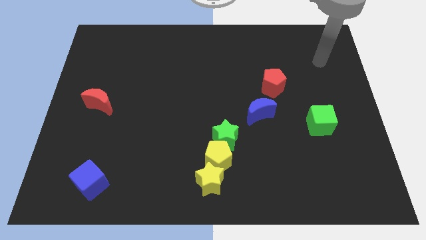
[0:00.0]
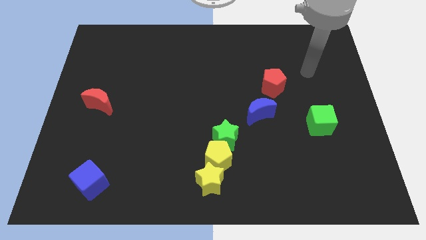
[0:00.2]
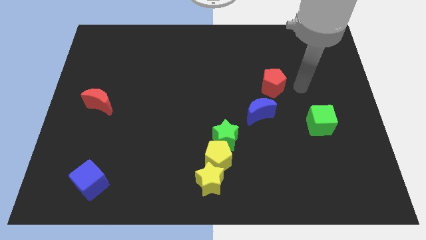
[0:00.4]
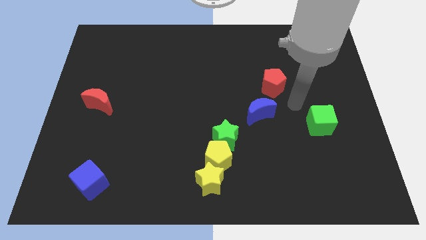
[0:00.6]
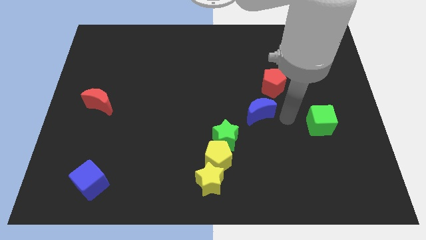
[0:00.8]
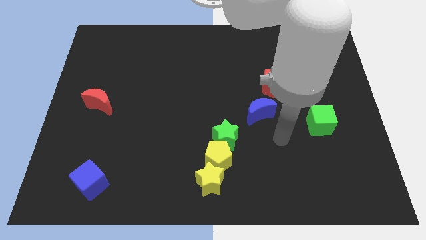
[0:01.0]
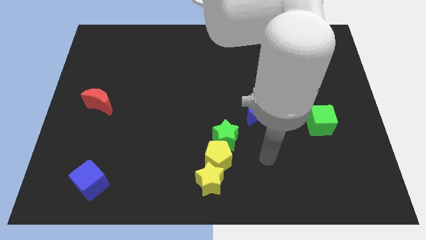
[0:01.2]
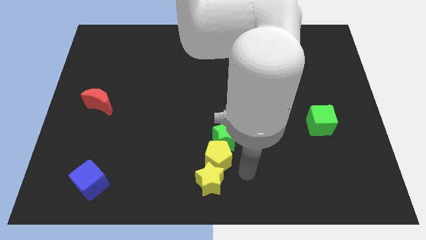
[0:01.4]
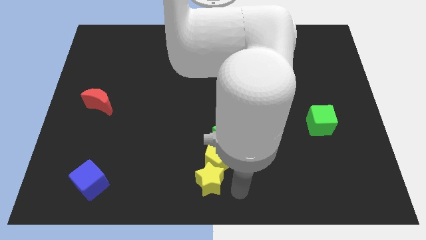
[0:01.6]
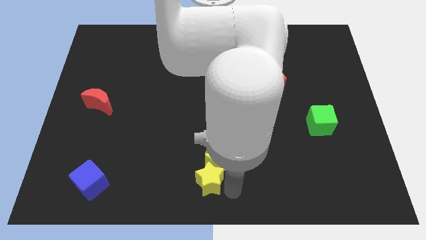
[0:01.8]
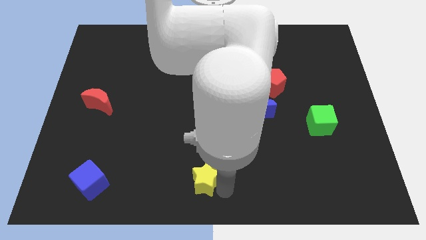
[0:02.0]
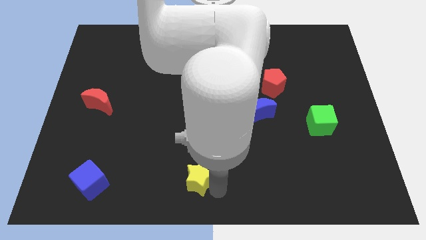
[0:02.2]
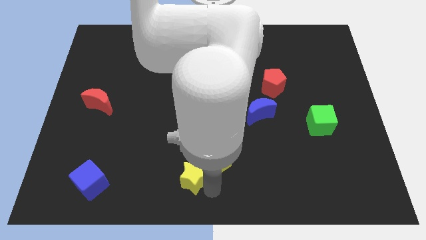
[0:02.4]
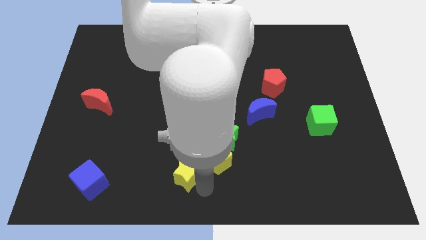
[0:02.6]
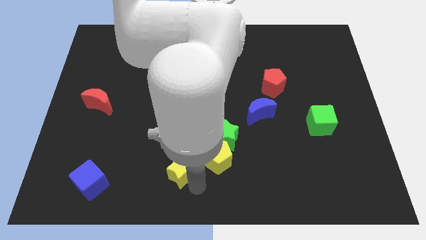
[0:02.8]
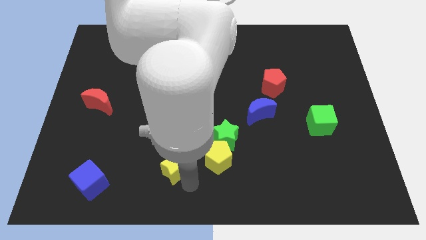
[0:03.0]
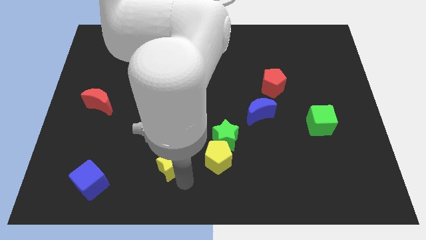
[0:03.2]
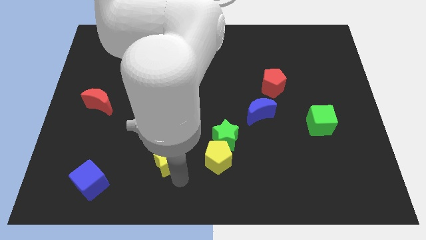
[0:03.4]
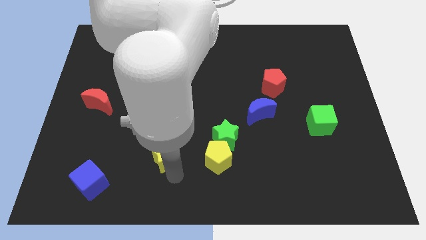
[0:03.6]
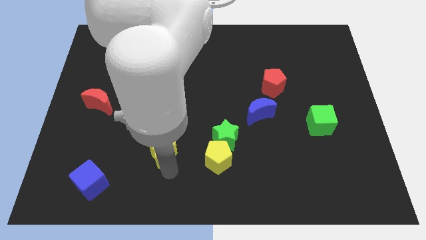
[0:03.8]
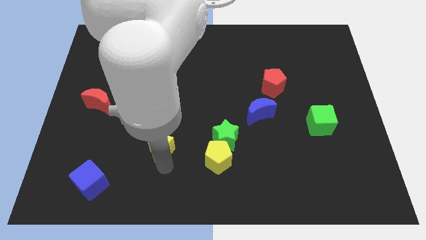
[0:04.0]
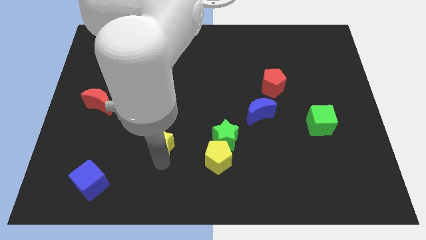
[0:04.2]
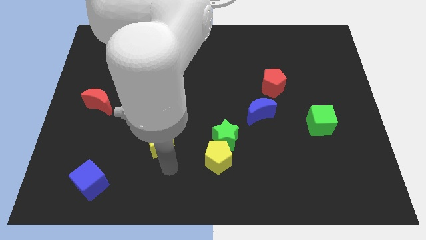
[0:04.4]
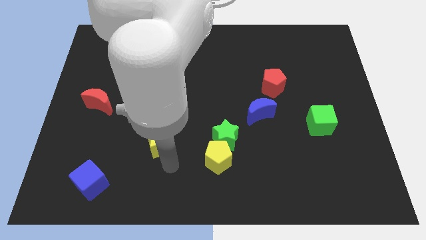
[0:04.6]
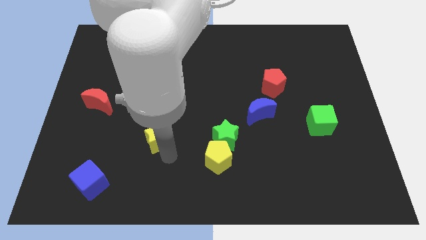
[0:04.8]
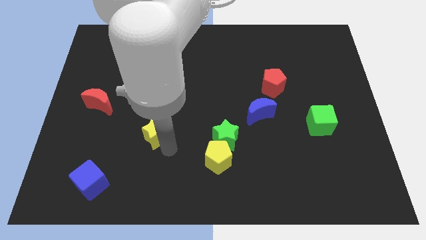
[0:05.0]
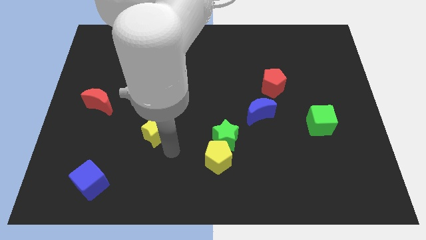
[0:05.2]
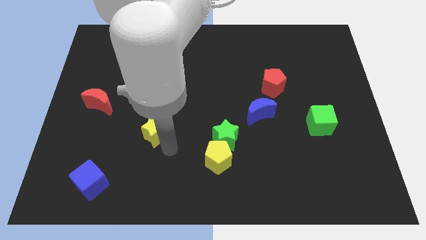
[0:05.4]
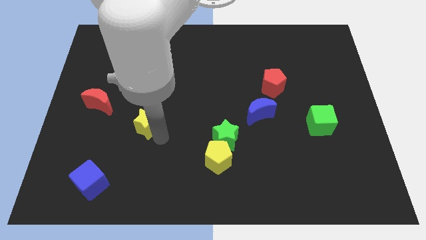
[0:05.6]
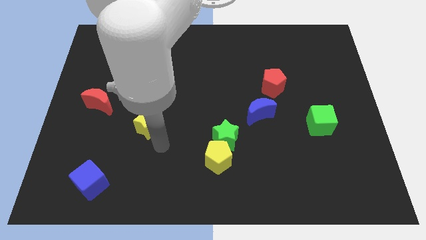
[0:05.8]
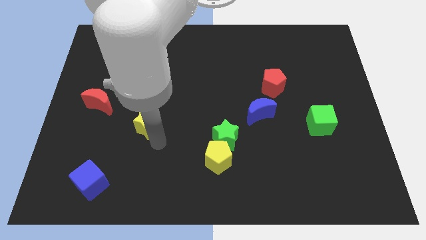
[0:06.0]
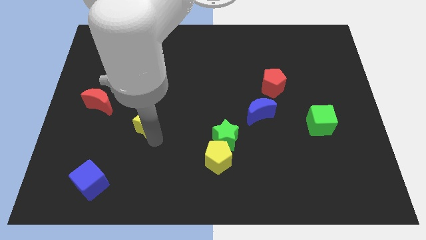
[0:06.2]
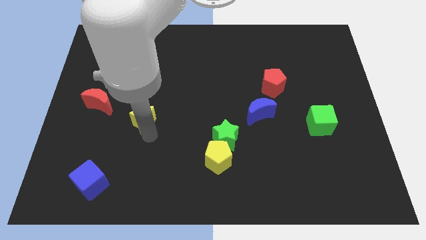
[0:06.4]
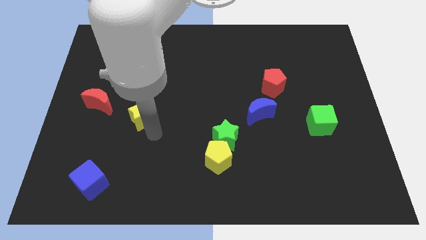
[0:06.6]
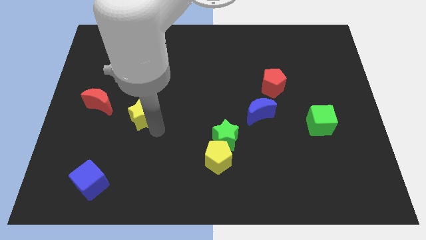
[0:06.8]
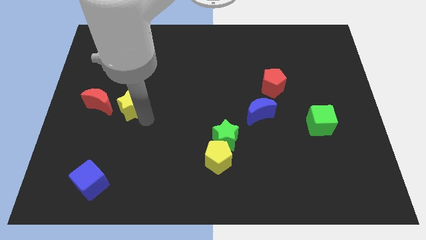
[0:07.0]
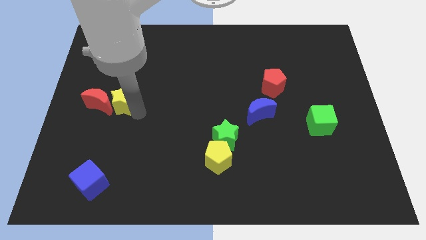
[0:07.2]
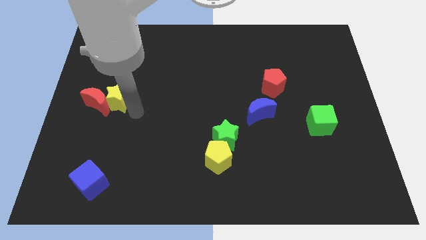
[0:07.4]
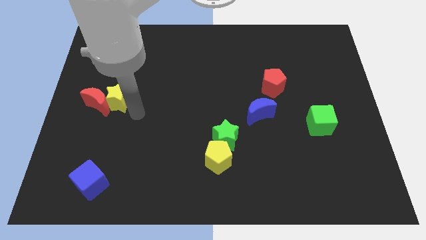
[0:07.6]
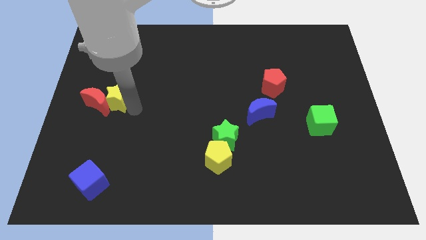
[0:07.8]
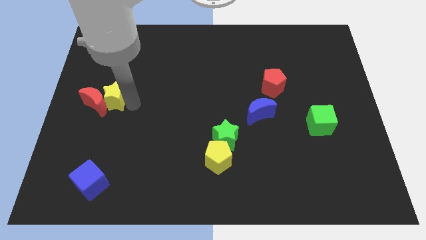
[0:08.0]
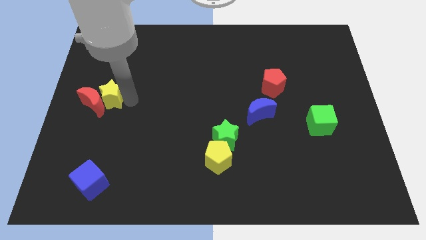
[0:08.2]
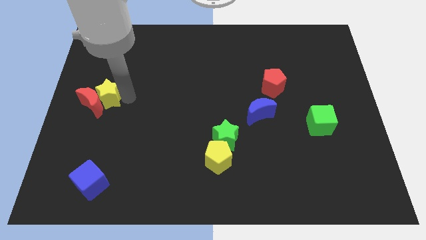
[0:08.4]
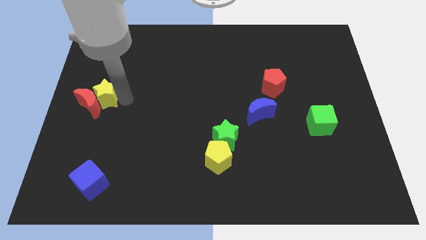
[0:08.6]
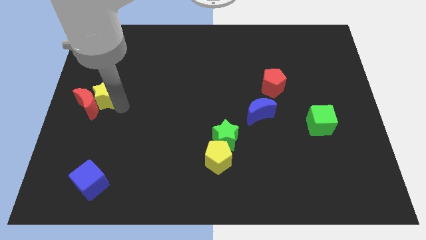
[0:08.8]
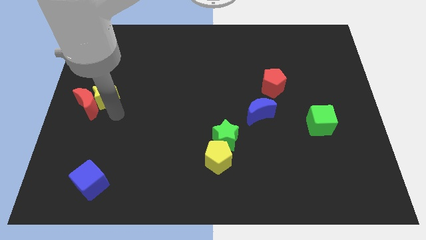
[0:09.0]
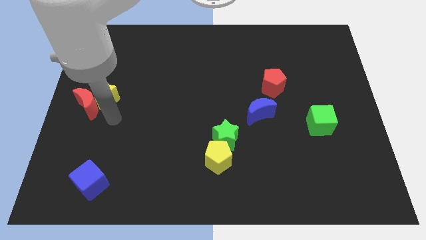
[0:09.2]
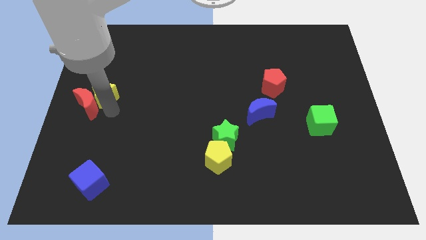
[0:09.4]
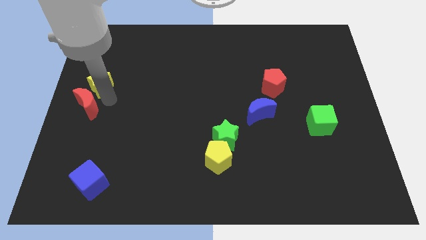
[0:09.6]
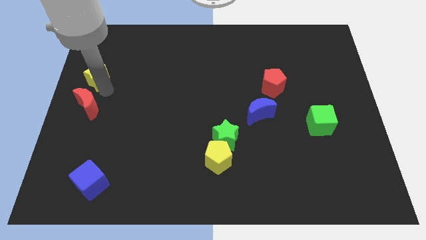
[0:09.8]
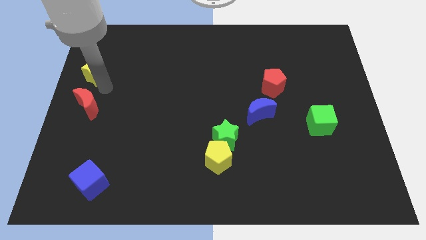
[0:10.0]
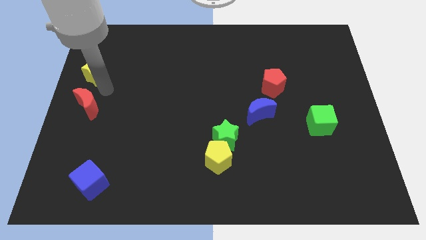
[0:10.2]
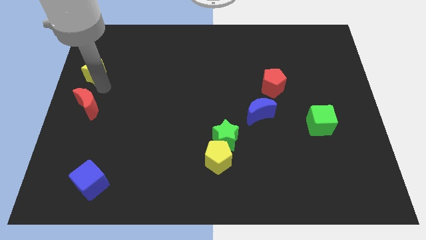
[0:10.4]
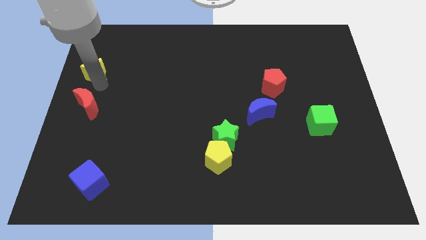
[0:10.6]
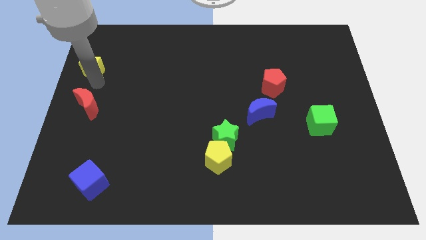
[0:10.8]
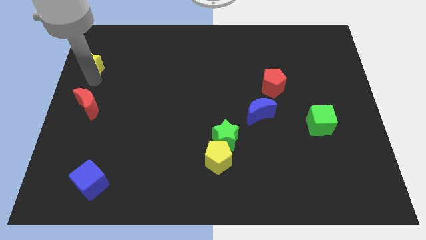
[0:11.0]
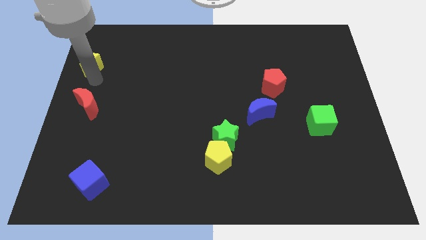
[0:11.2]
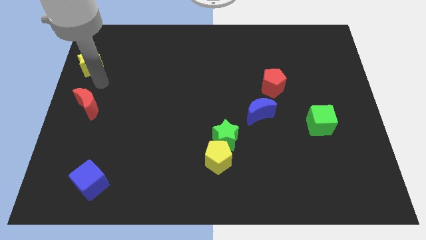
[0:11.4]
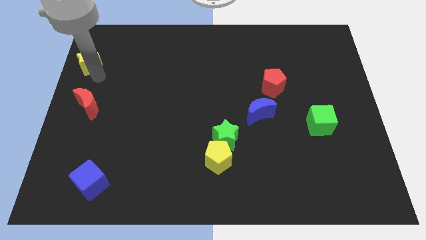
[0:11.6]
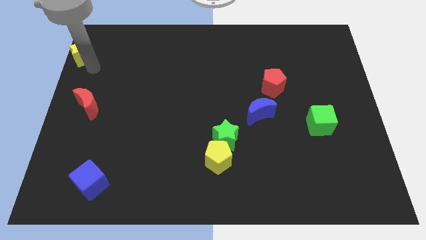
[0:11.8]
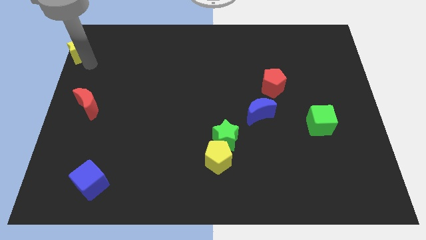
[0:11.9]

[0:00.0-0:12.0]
move the yellow star to the top left

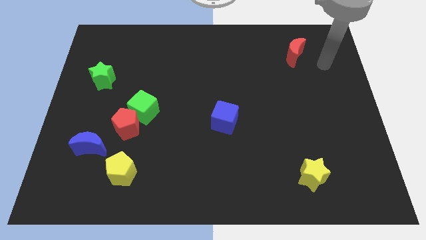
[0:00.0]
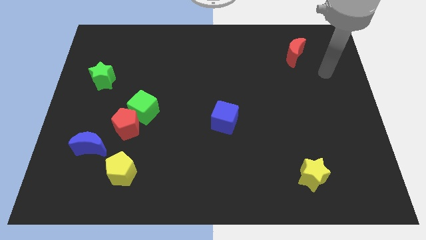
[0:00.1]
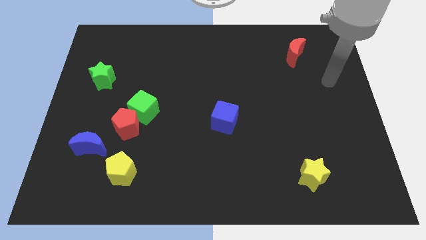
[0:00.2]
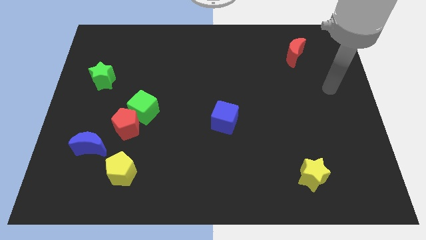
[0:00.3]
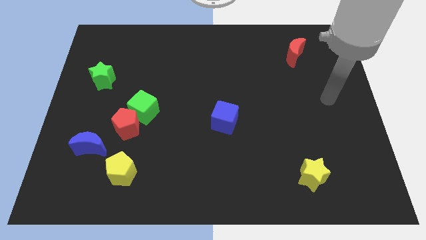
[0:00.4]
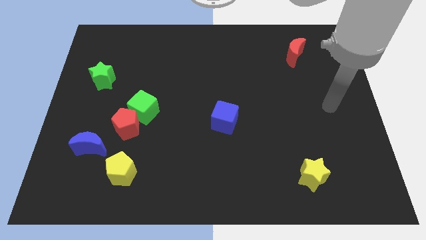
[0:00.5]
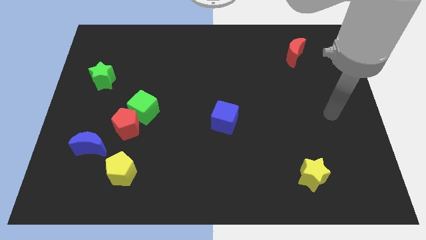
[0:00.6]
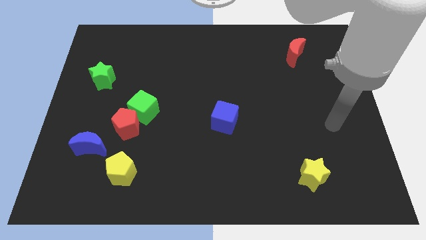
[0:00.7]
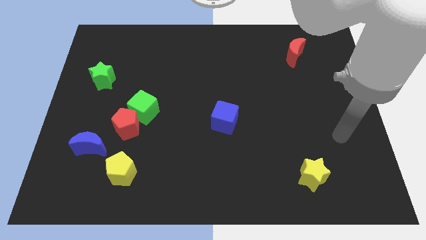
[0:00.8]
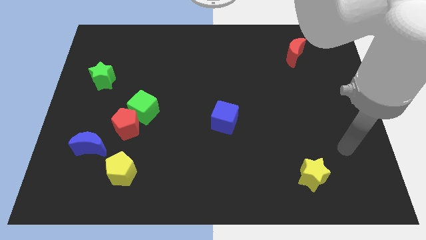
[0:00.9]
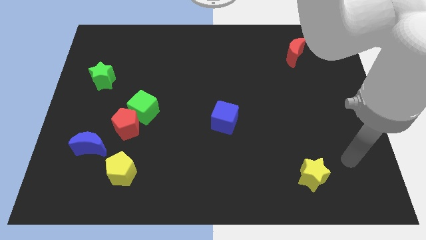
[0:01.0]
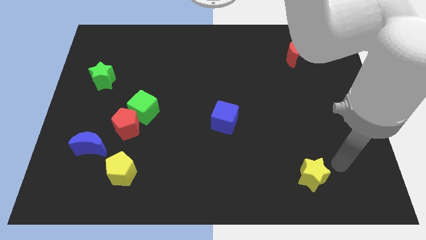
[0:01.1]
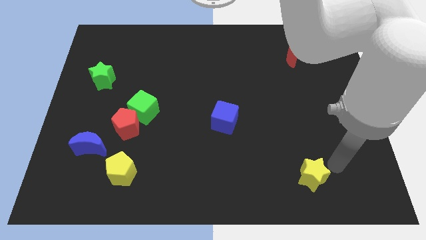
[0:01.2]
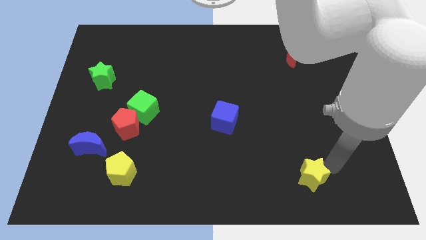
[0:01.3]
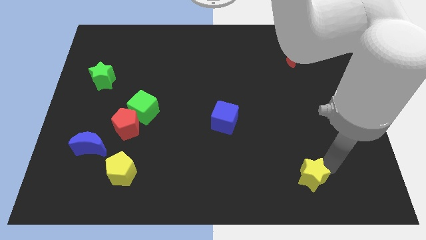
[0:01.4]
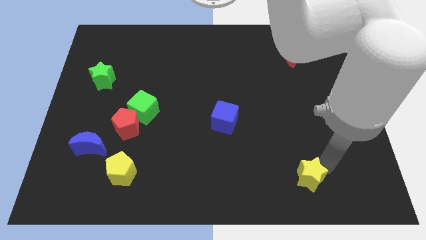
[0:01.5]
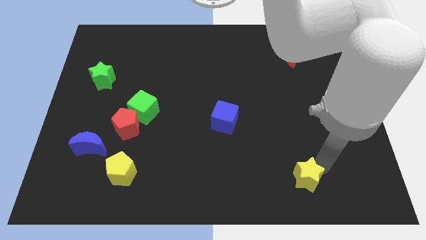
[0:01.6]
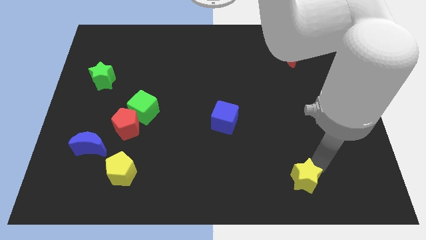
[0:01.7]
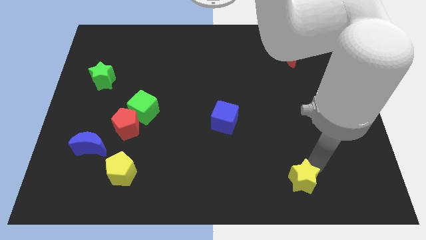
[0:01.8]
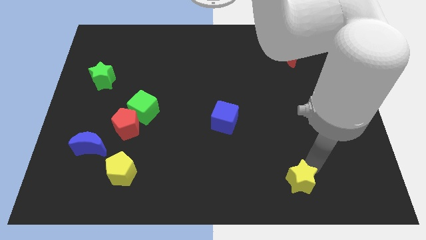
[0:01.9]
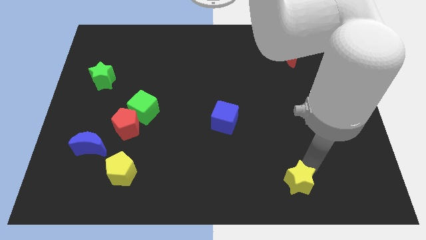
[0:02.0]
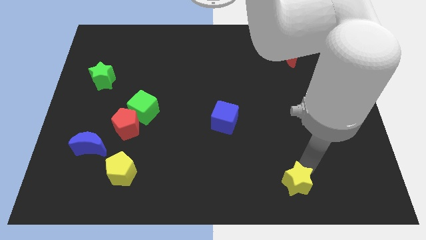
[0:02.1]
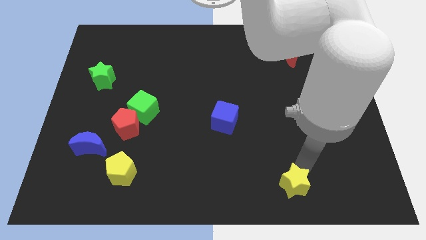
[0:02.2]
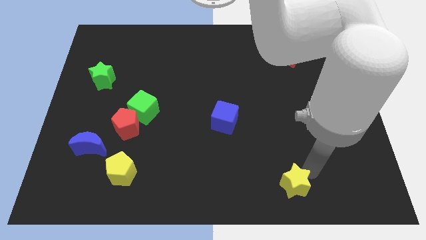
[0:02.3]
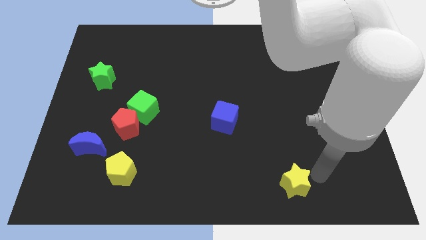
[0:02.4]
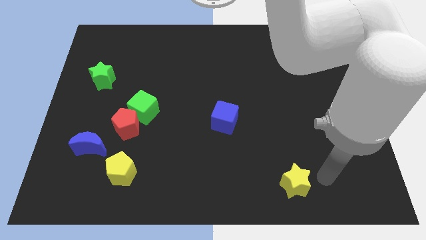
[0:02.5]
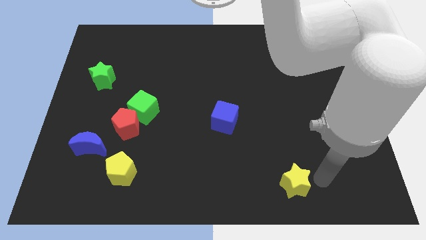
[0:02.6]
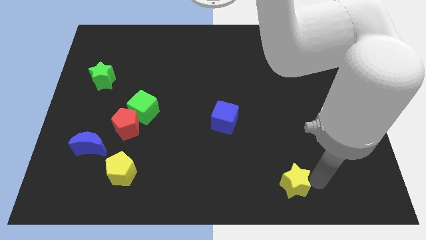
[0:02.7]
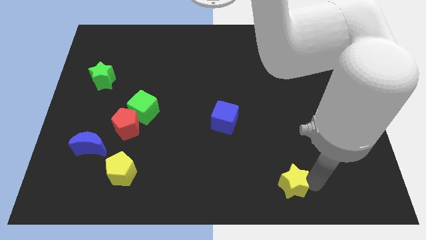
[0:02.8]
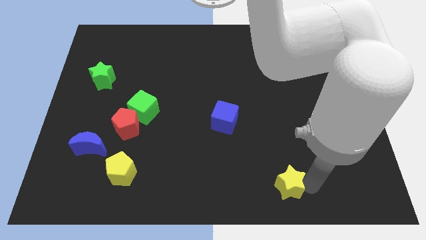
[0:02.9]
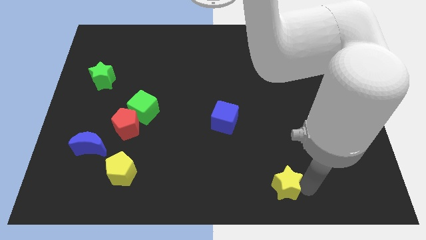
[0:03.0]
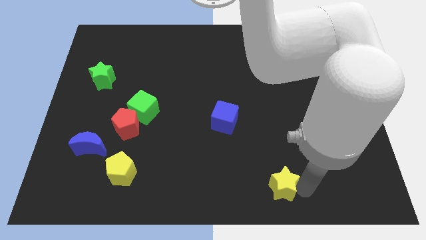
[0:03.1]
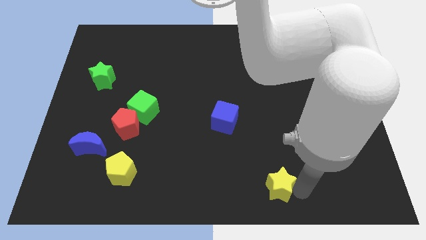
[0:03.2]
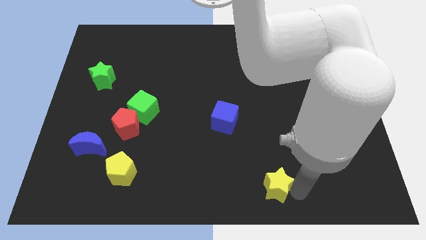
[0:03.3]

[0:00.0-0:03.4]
move the yellow star to the bottom
